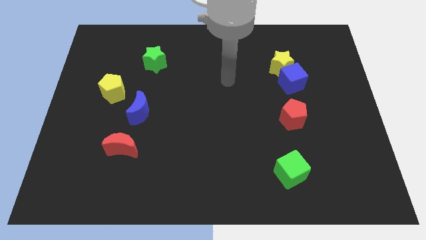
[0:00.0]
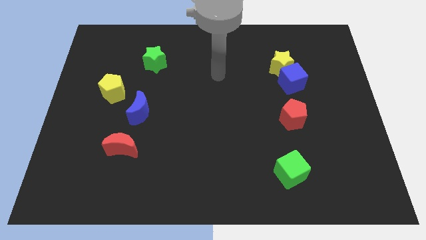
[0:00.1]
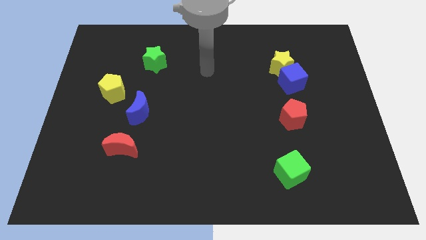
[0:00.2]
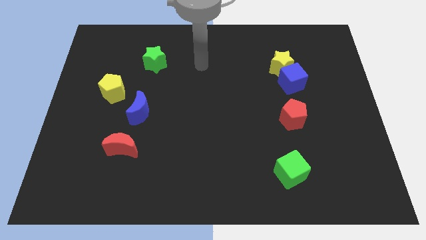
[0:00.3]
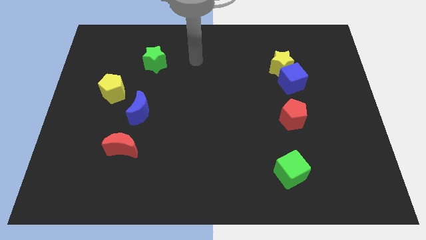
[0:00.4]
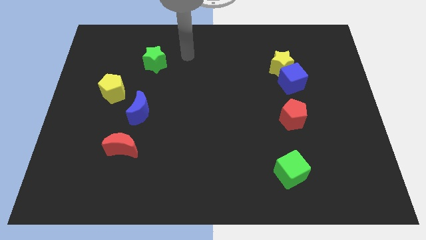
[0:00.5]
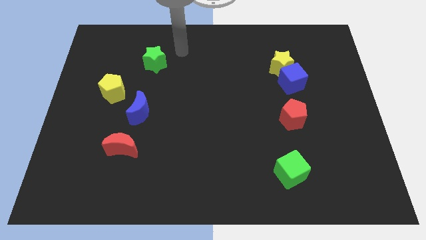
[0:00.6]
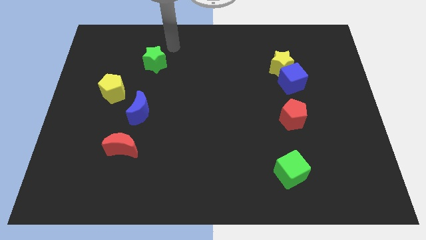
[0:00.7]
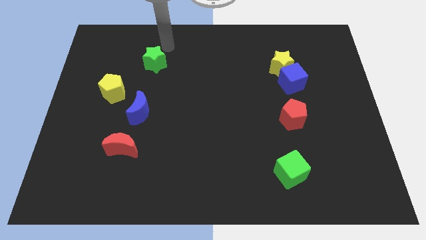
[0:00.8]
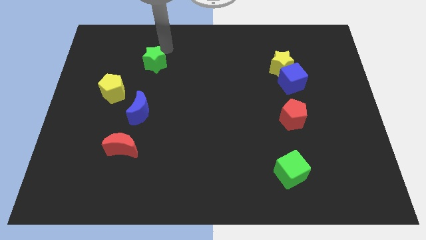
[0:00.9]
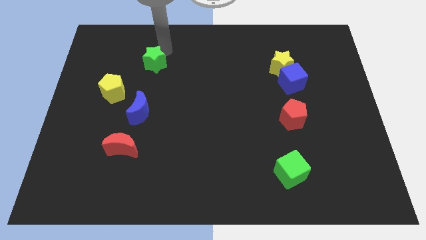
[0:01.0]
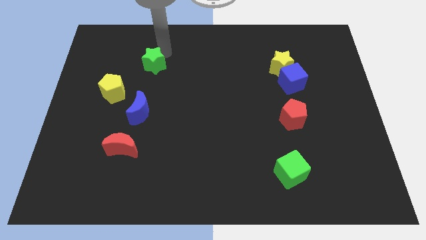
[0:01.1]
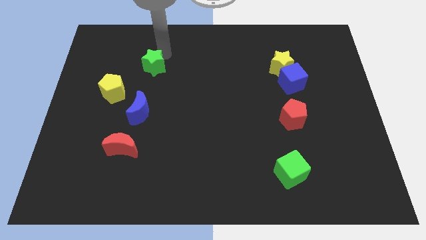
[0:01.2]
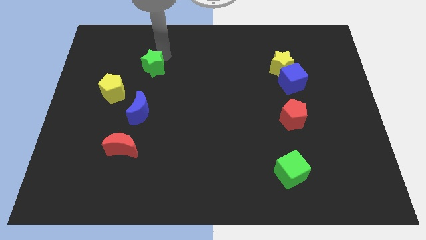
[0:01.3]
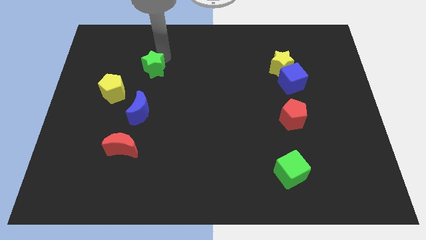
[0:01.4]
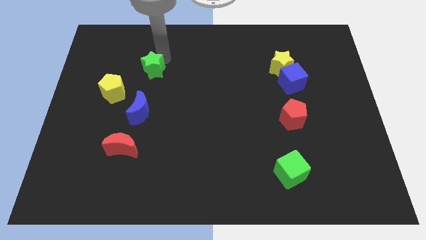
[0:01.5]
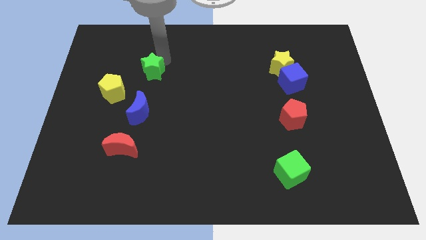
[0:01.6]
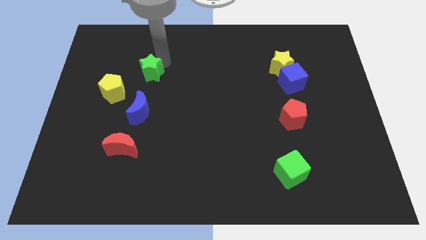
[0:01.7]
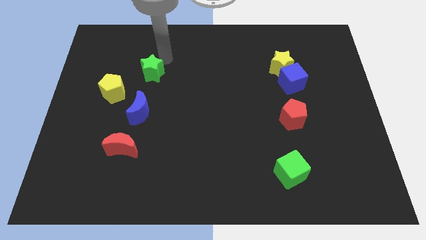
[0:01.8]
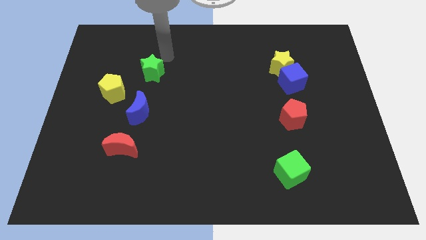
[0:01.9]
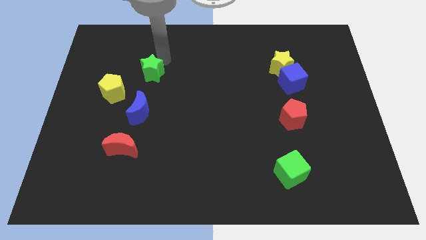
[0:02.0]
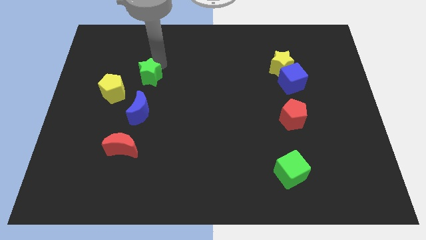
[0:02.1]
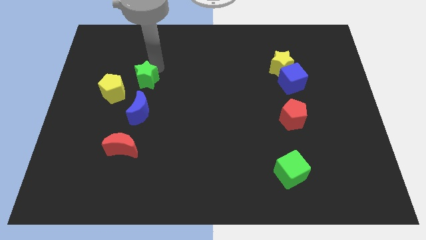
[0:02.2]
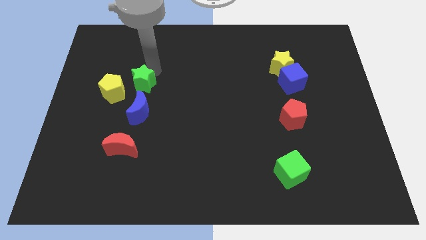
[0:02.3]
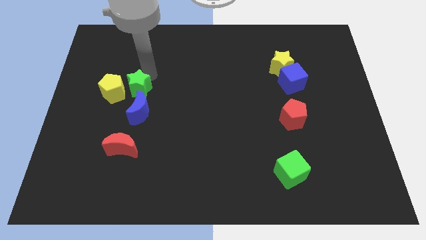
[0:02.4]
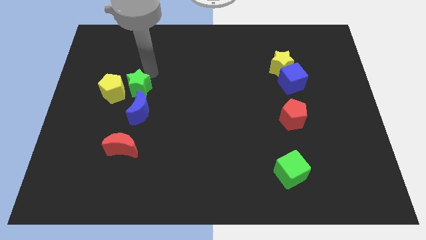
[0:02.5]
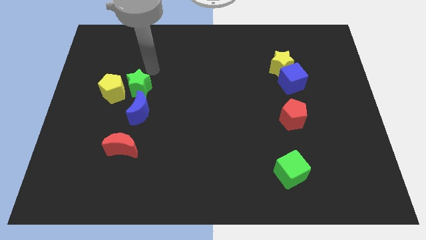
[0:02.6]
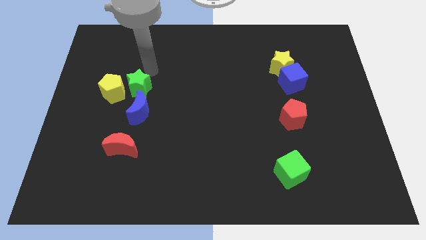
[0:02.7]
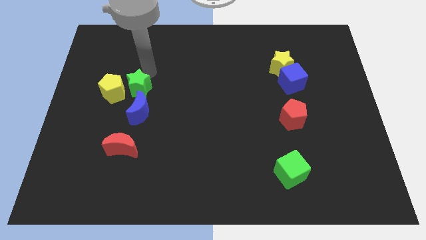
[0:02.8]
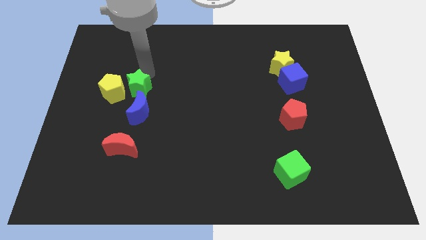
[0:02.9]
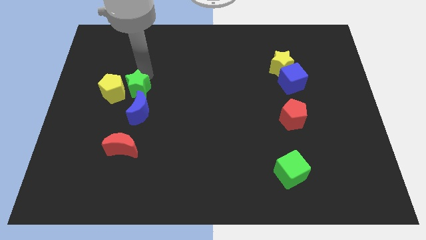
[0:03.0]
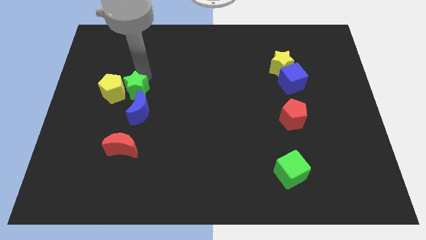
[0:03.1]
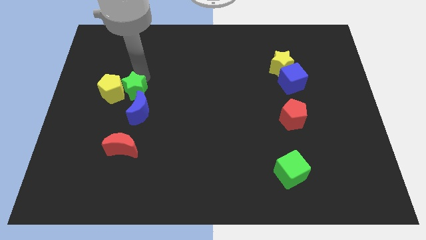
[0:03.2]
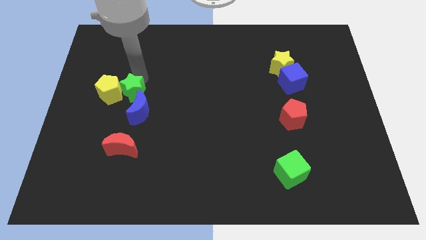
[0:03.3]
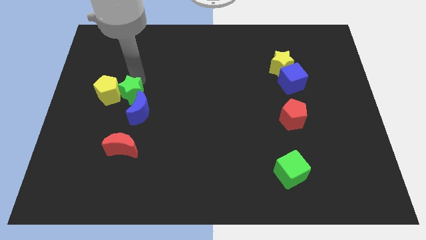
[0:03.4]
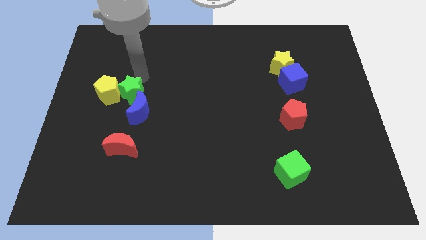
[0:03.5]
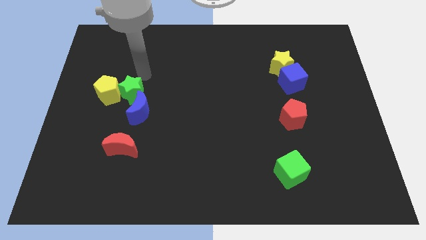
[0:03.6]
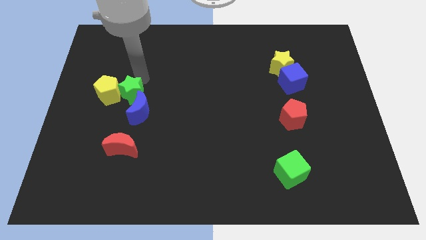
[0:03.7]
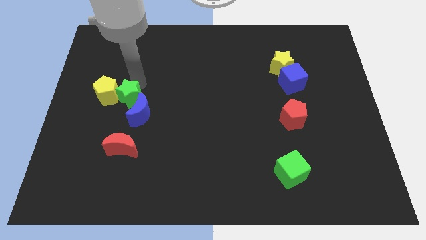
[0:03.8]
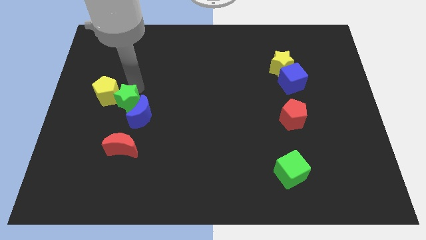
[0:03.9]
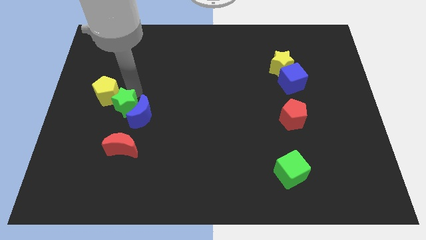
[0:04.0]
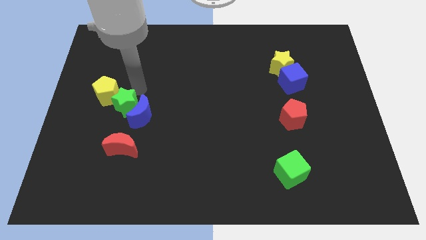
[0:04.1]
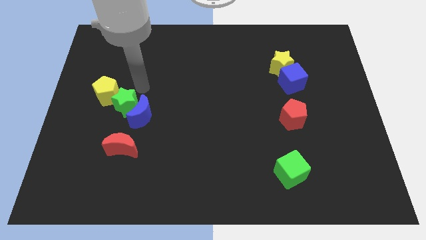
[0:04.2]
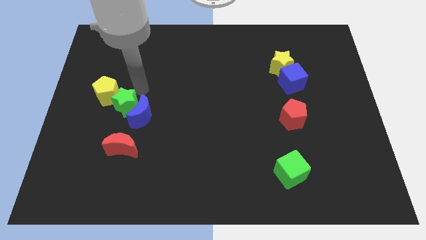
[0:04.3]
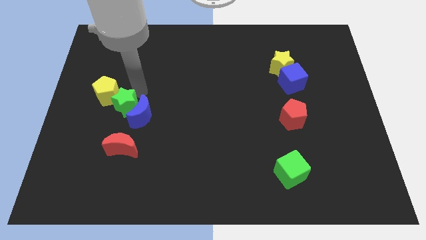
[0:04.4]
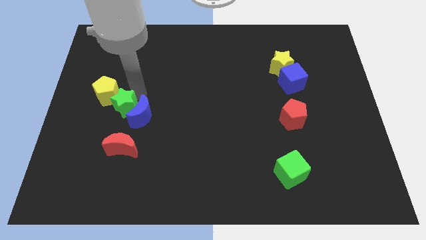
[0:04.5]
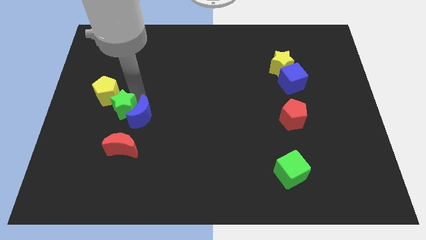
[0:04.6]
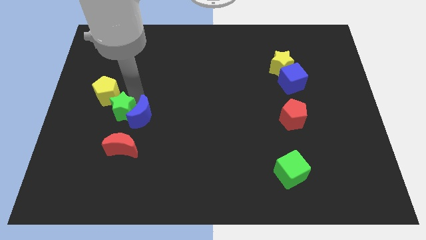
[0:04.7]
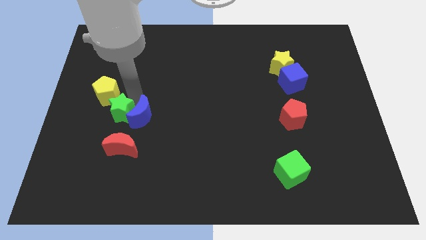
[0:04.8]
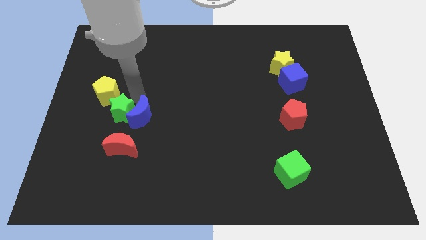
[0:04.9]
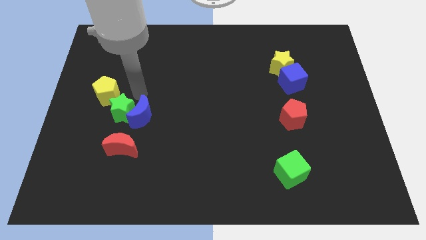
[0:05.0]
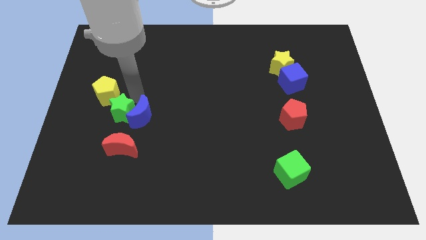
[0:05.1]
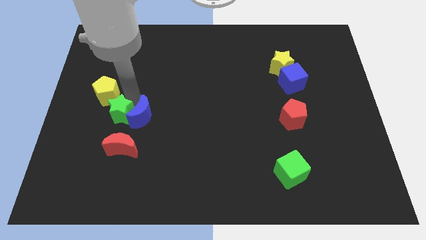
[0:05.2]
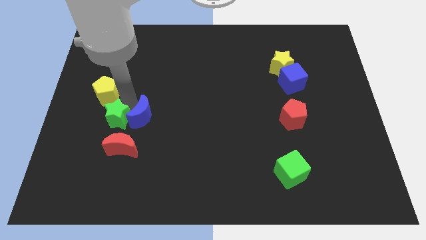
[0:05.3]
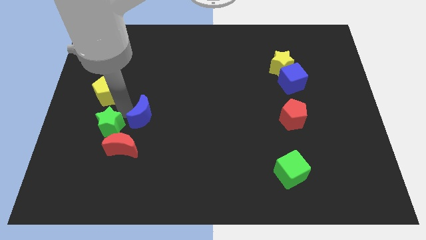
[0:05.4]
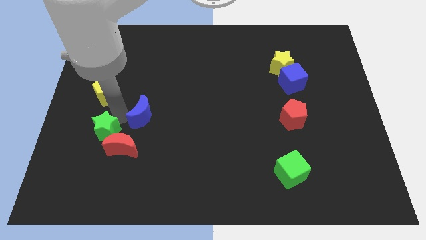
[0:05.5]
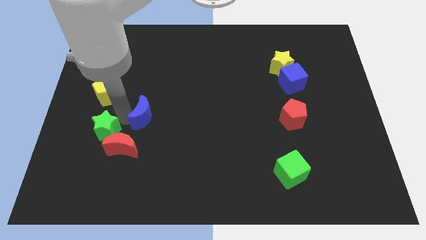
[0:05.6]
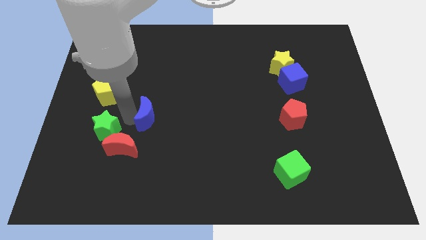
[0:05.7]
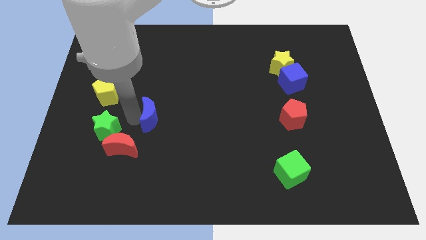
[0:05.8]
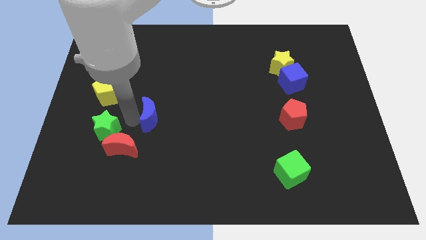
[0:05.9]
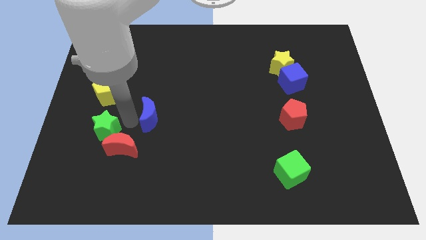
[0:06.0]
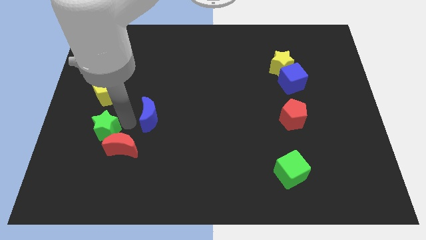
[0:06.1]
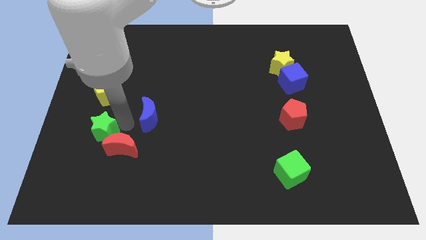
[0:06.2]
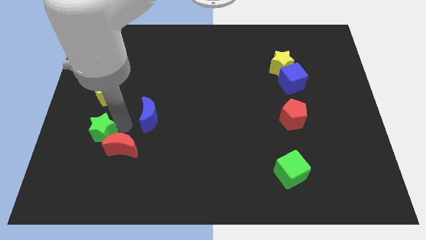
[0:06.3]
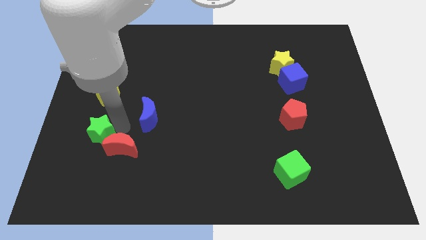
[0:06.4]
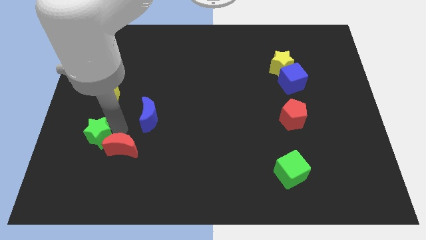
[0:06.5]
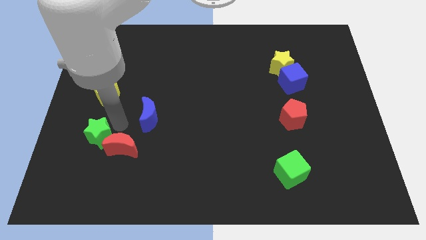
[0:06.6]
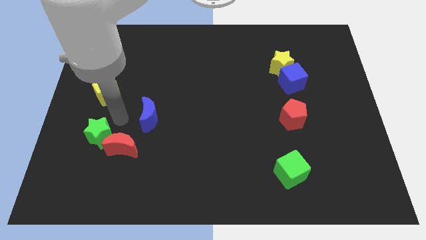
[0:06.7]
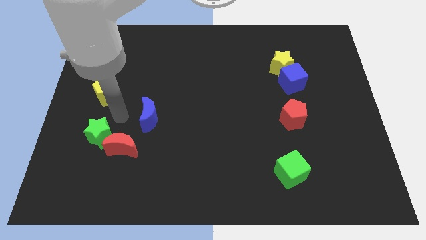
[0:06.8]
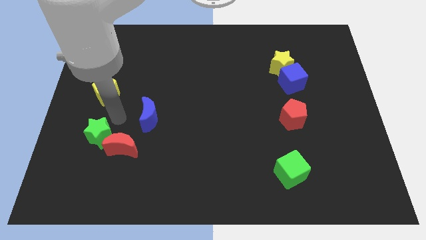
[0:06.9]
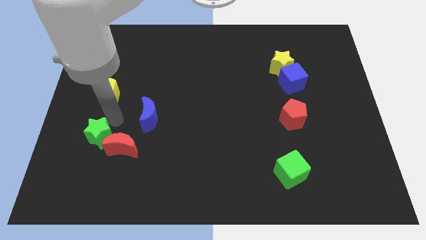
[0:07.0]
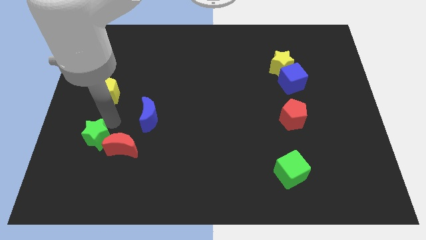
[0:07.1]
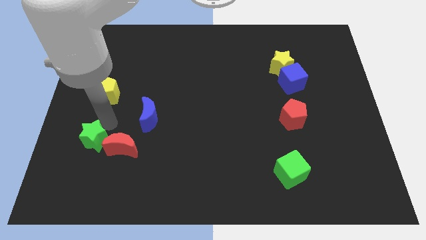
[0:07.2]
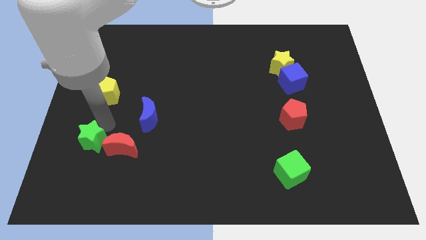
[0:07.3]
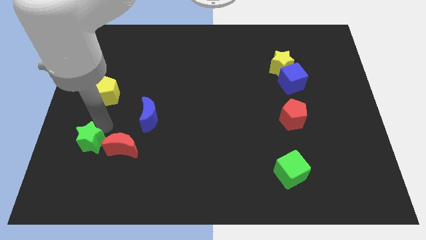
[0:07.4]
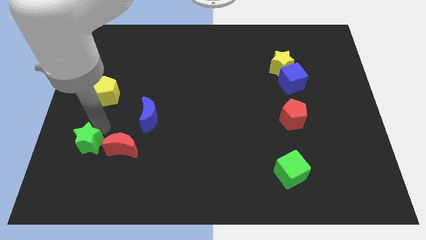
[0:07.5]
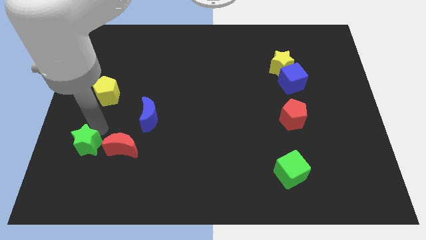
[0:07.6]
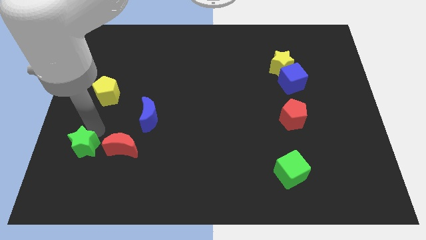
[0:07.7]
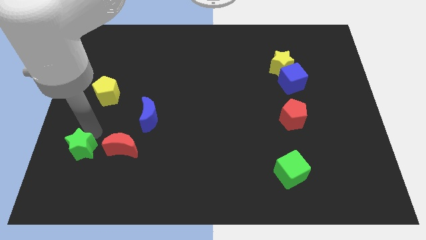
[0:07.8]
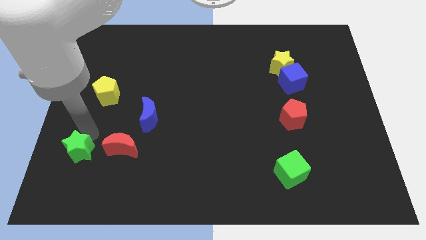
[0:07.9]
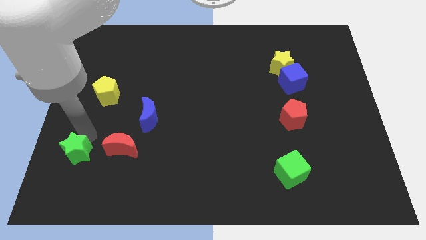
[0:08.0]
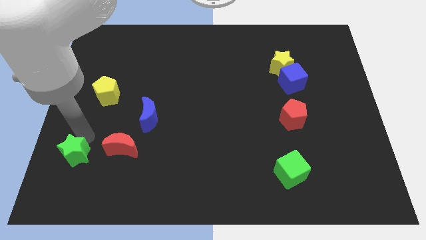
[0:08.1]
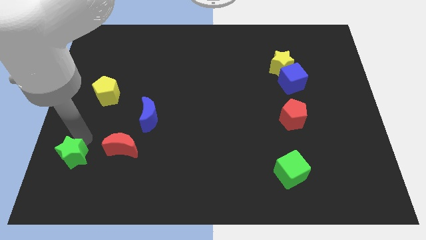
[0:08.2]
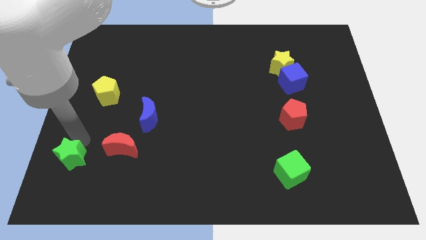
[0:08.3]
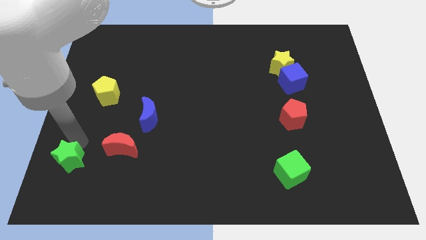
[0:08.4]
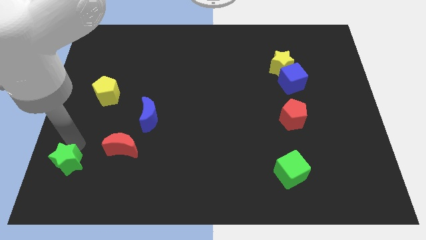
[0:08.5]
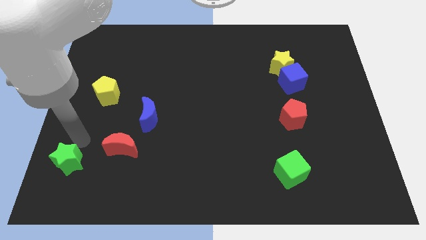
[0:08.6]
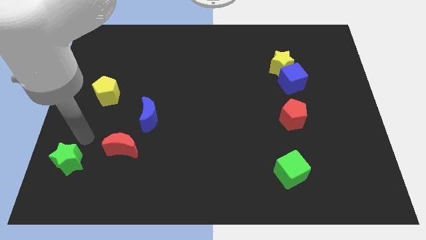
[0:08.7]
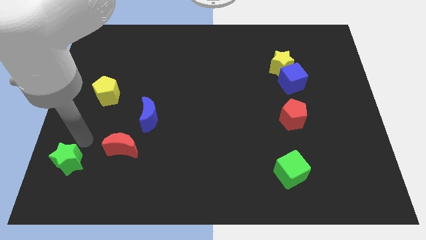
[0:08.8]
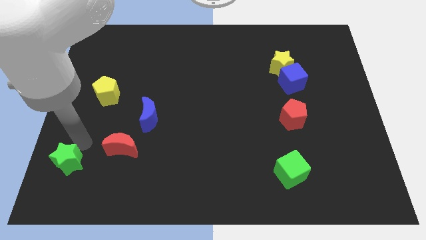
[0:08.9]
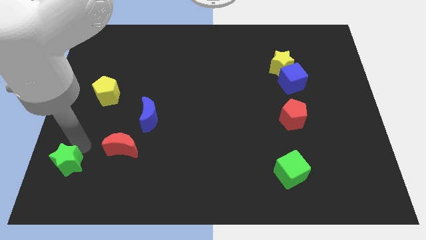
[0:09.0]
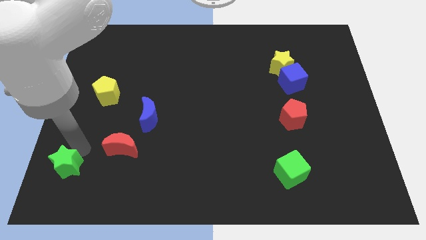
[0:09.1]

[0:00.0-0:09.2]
slide the green star to the bottom left
